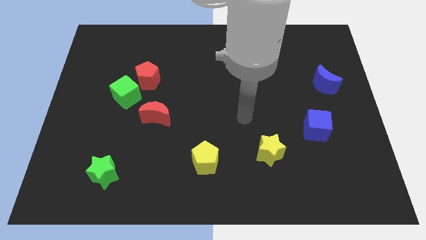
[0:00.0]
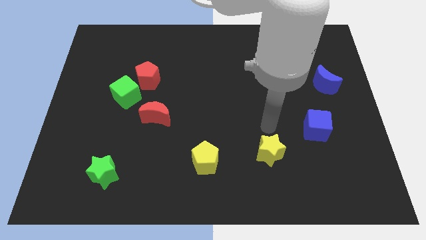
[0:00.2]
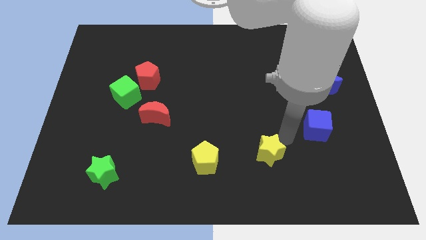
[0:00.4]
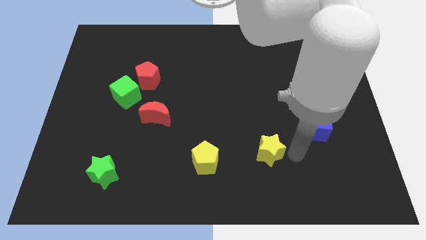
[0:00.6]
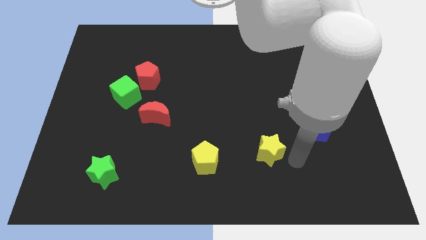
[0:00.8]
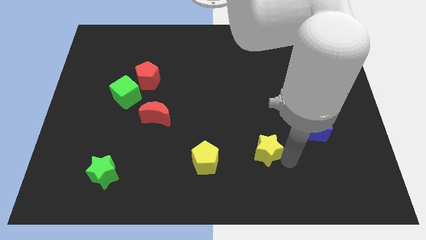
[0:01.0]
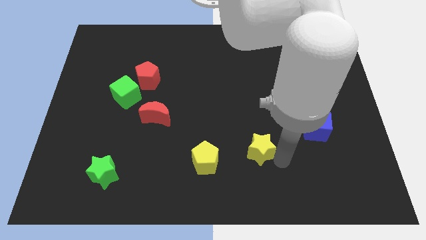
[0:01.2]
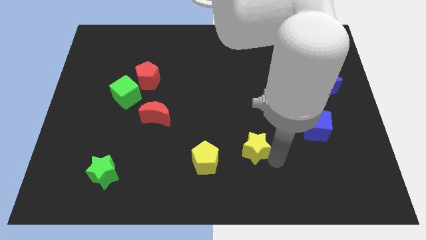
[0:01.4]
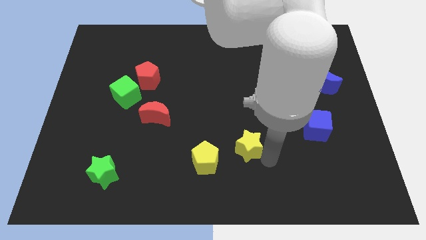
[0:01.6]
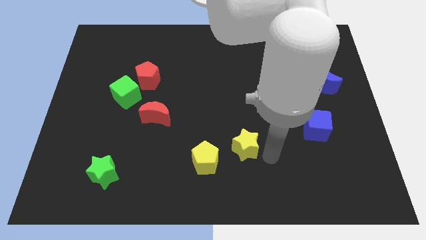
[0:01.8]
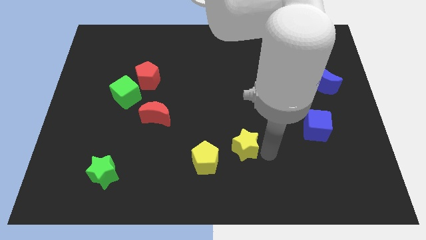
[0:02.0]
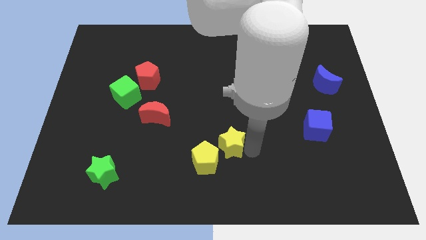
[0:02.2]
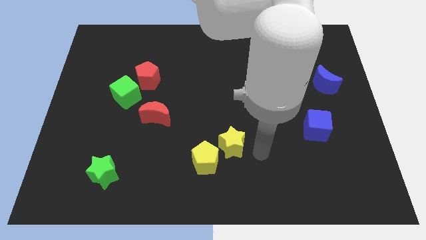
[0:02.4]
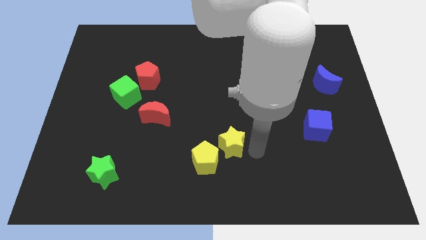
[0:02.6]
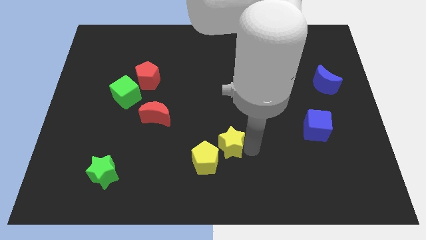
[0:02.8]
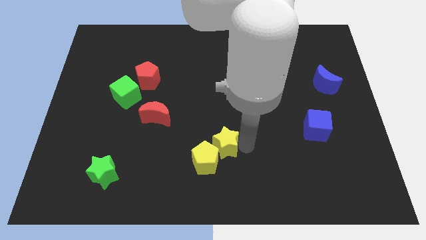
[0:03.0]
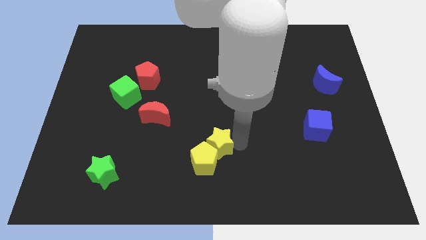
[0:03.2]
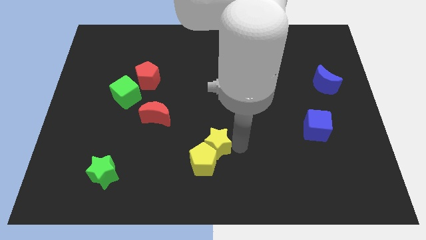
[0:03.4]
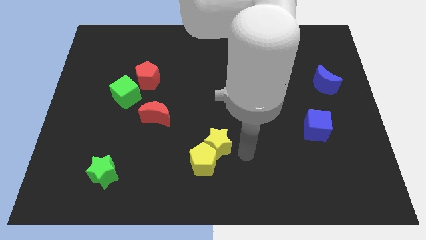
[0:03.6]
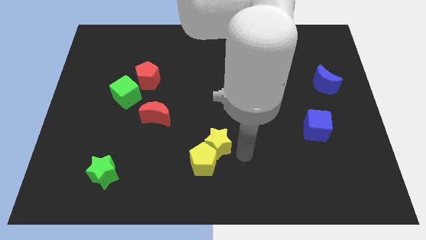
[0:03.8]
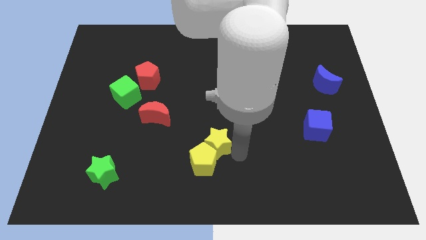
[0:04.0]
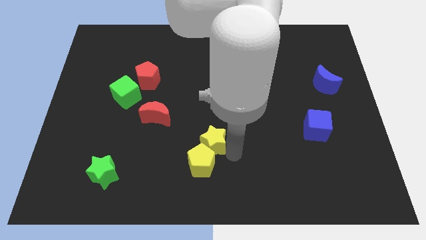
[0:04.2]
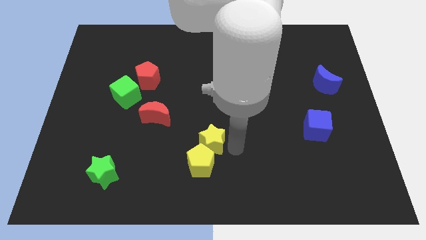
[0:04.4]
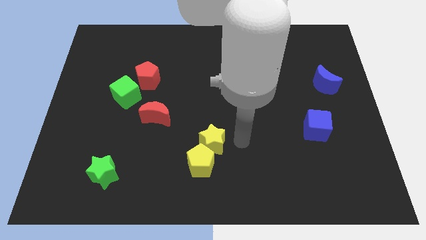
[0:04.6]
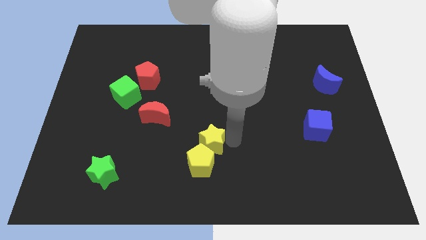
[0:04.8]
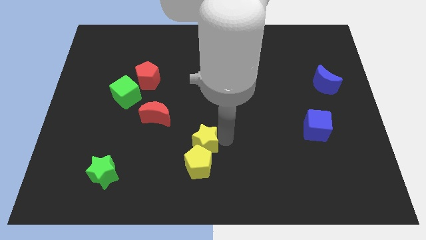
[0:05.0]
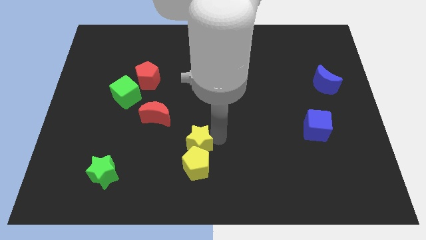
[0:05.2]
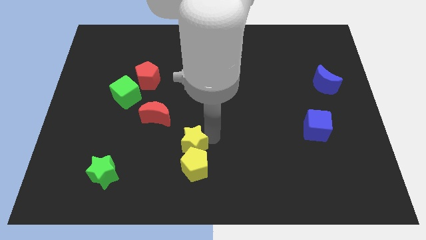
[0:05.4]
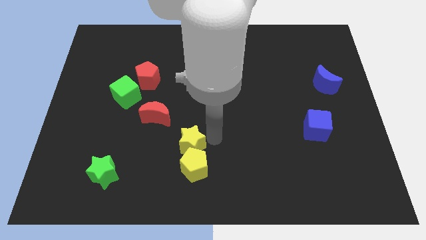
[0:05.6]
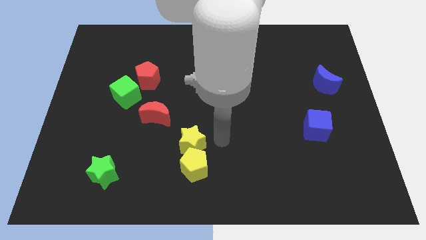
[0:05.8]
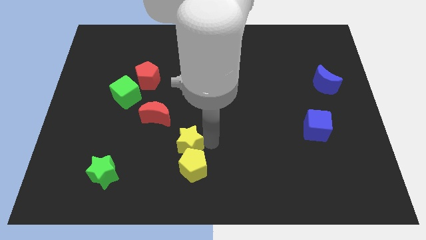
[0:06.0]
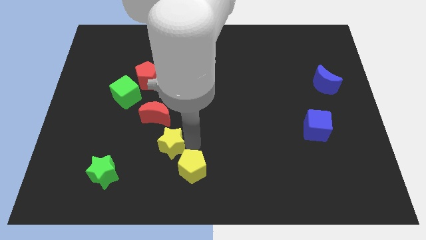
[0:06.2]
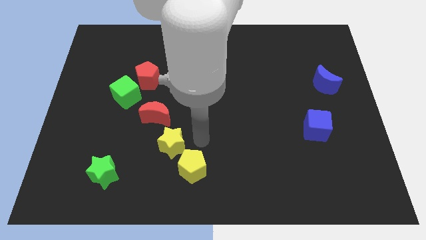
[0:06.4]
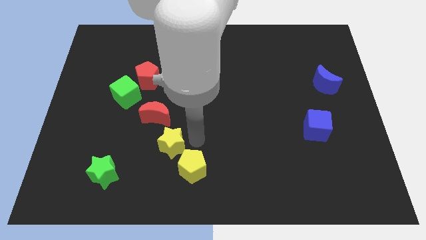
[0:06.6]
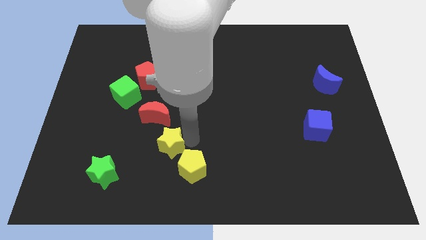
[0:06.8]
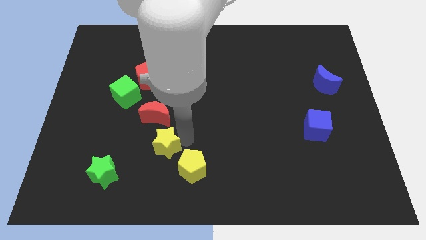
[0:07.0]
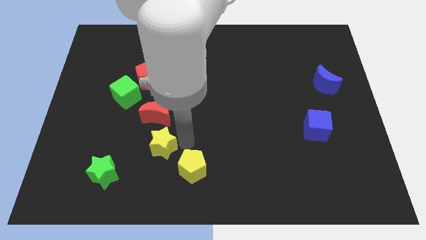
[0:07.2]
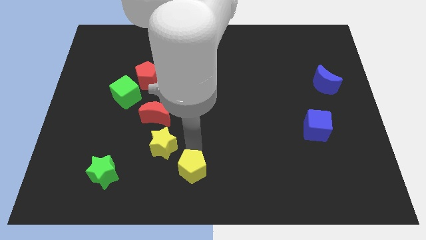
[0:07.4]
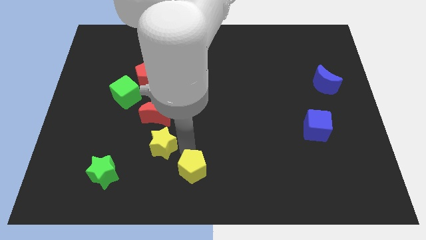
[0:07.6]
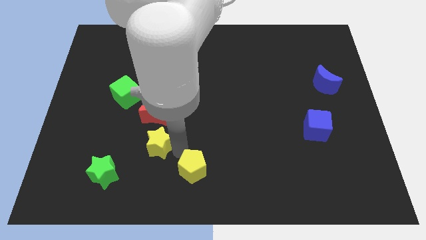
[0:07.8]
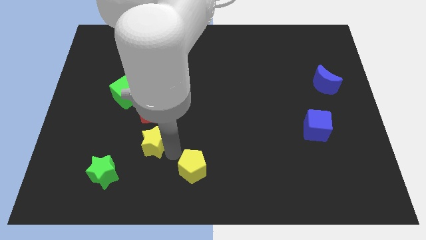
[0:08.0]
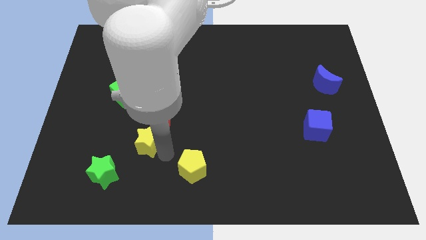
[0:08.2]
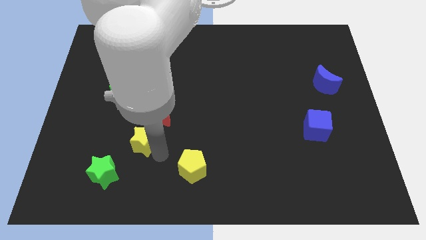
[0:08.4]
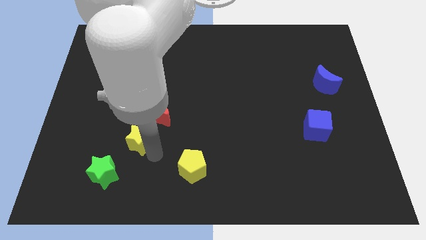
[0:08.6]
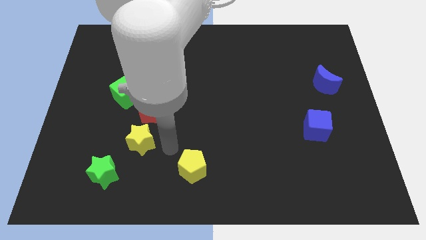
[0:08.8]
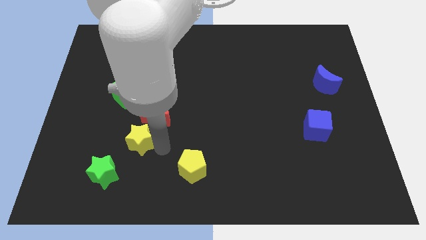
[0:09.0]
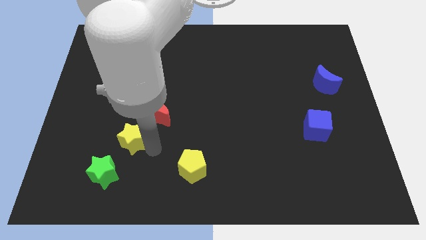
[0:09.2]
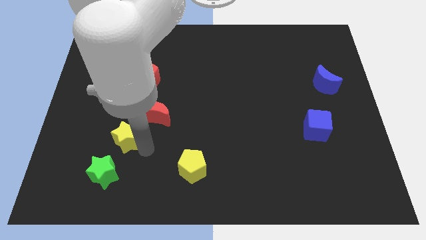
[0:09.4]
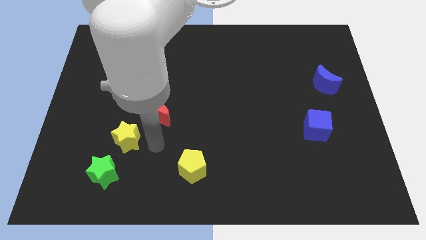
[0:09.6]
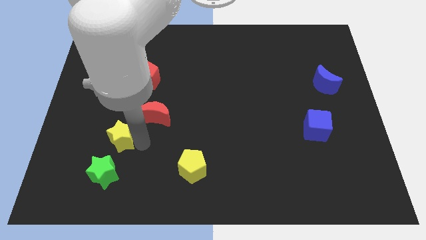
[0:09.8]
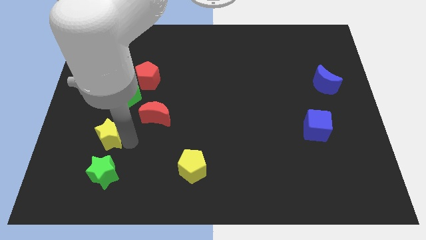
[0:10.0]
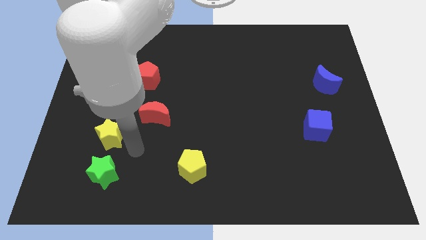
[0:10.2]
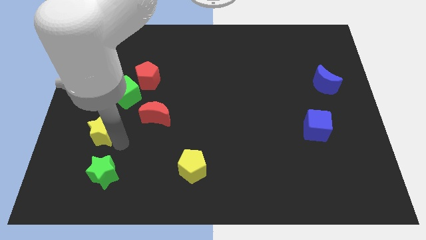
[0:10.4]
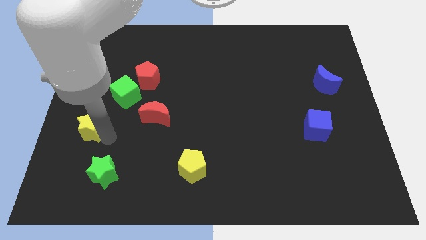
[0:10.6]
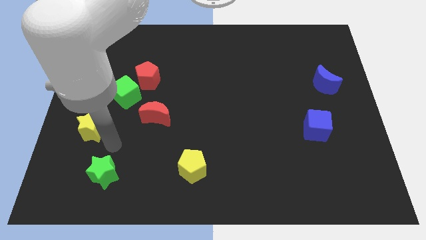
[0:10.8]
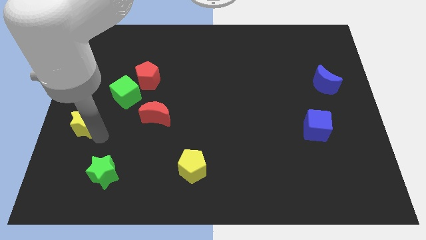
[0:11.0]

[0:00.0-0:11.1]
put the yellow star to the left side of the board

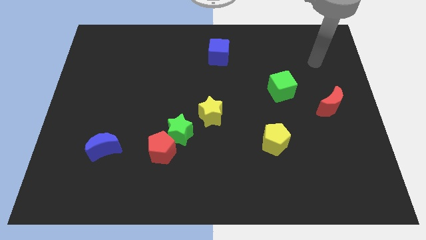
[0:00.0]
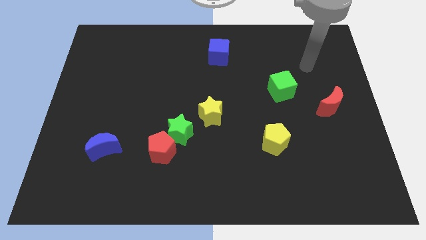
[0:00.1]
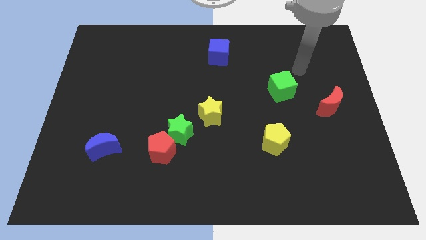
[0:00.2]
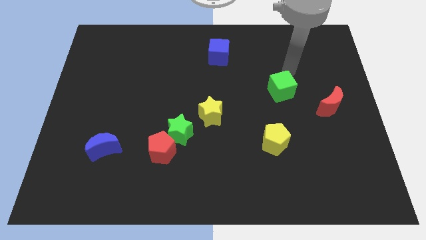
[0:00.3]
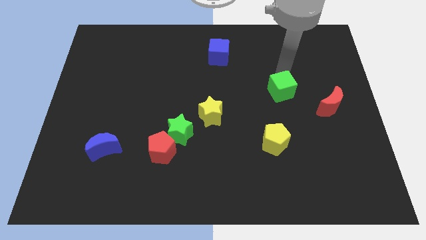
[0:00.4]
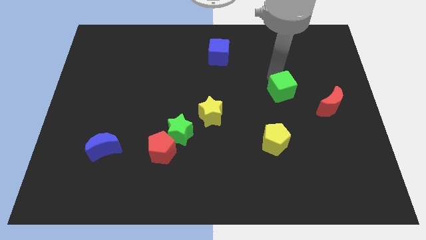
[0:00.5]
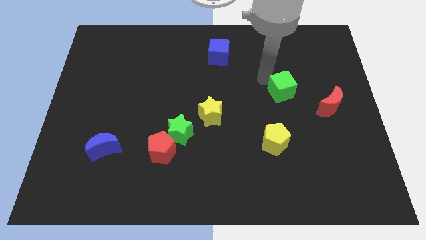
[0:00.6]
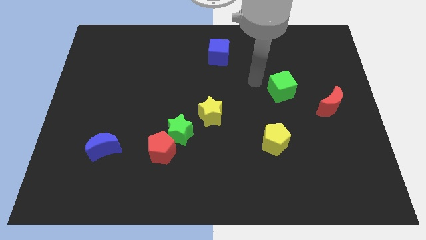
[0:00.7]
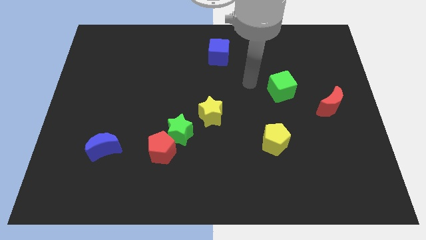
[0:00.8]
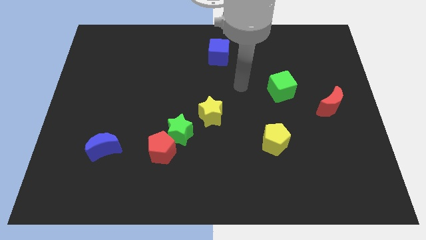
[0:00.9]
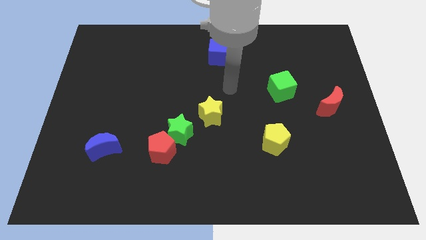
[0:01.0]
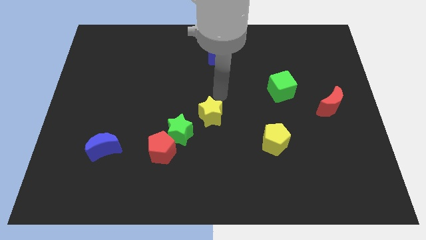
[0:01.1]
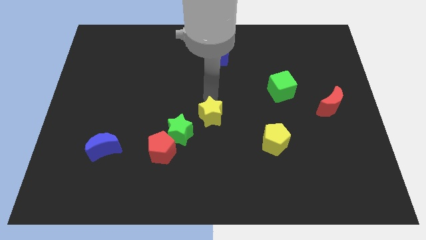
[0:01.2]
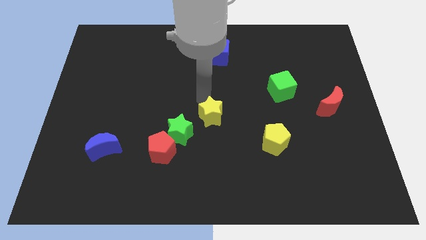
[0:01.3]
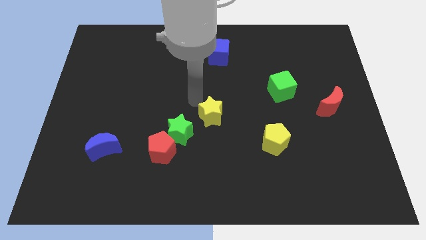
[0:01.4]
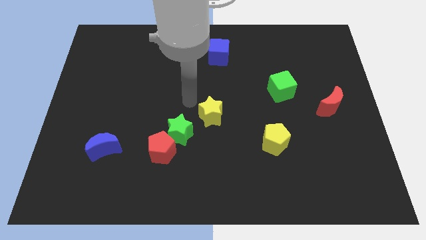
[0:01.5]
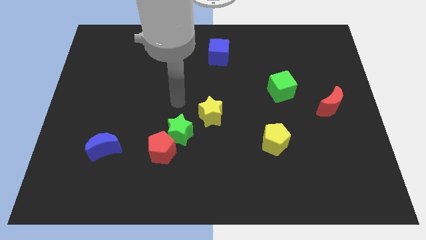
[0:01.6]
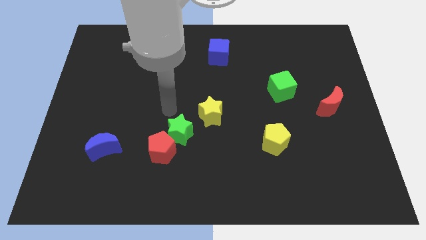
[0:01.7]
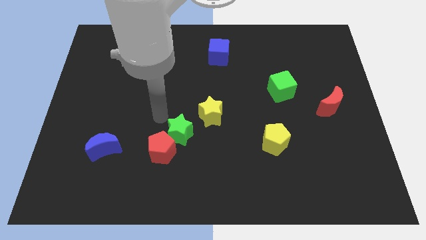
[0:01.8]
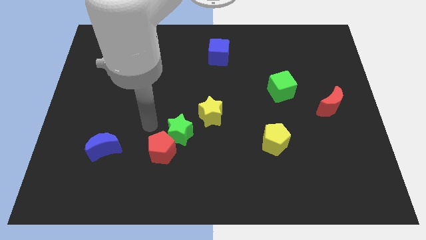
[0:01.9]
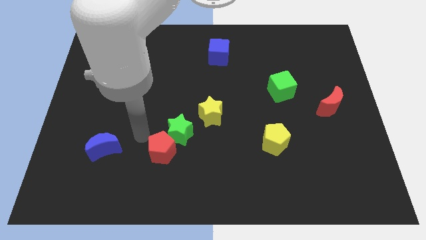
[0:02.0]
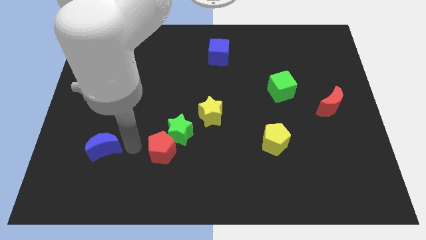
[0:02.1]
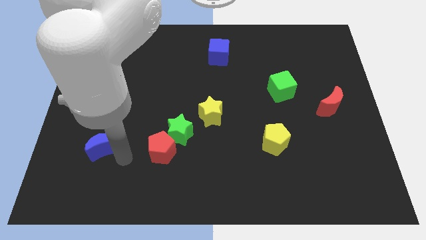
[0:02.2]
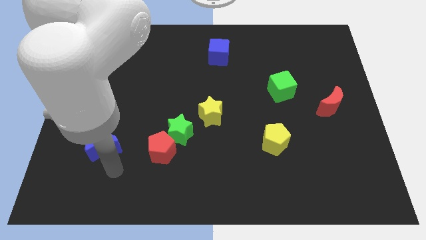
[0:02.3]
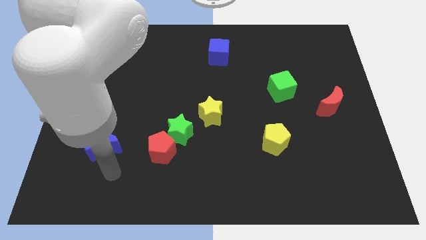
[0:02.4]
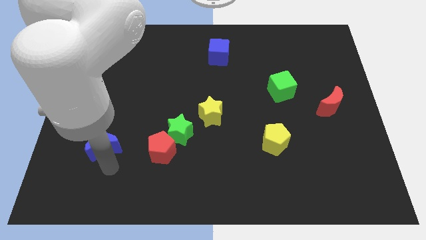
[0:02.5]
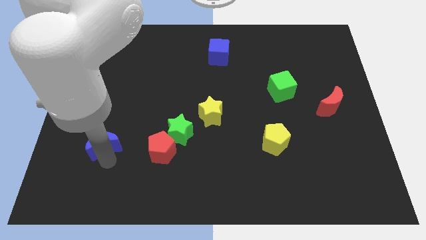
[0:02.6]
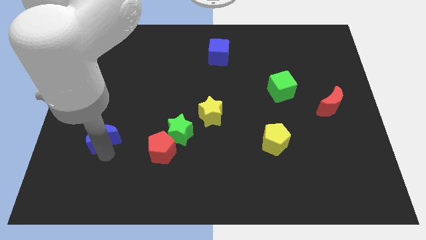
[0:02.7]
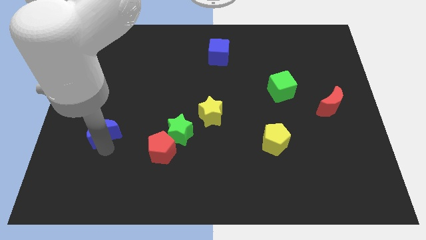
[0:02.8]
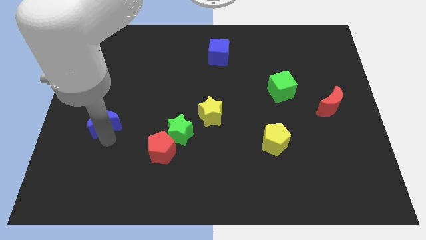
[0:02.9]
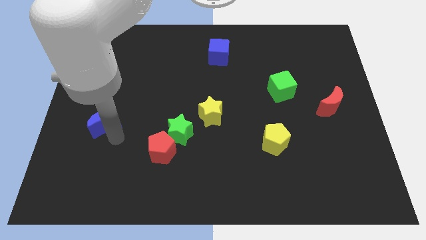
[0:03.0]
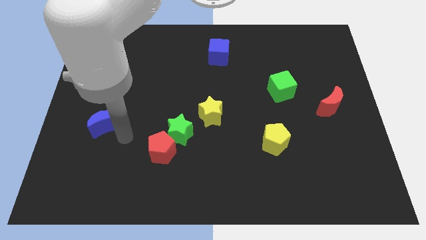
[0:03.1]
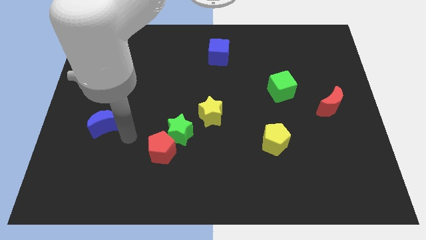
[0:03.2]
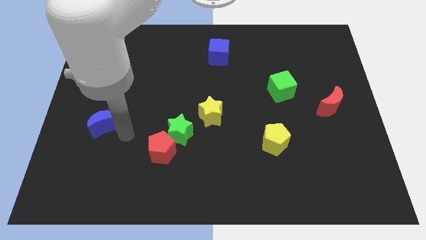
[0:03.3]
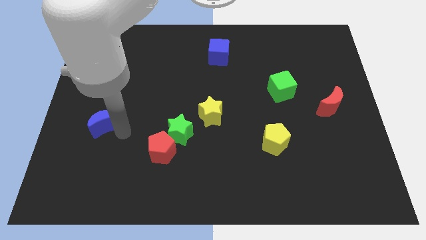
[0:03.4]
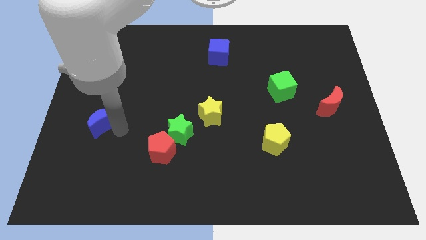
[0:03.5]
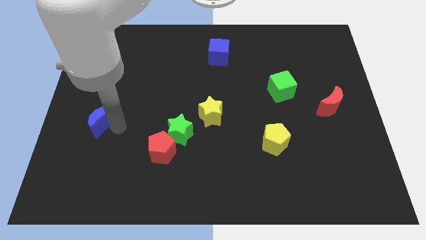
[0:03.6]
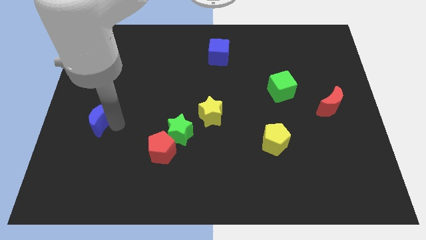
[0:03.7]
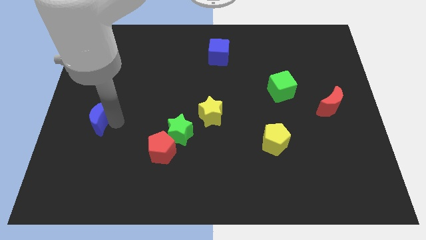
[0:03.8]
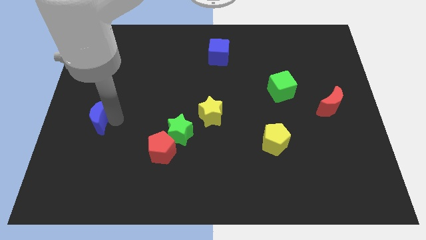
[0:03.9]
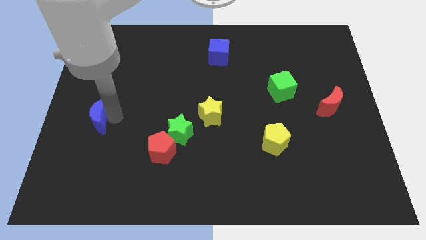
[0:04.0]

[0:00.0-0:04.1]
put the blue moon to the left side
